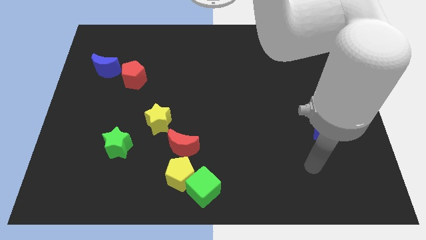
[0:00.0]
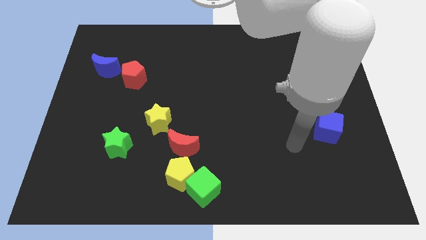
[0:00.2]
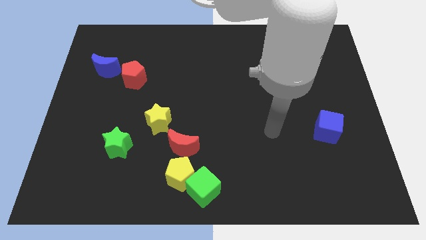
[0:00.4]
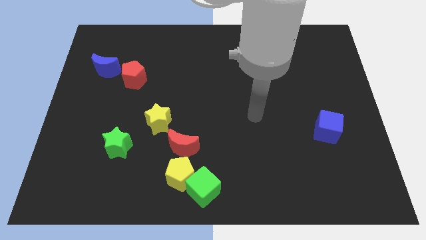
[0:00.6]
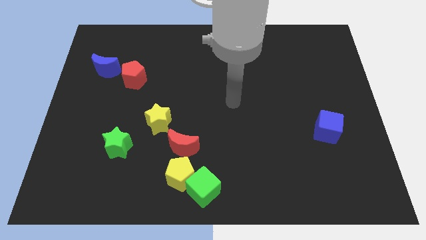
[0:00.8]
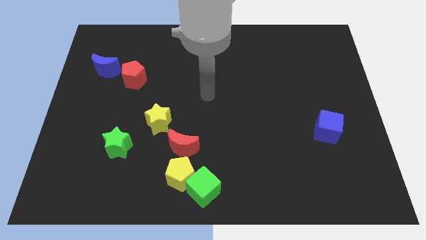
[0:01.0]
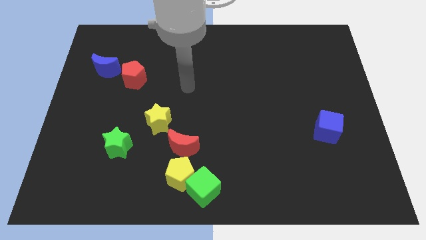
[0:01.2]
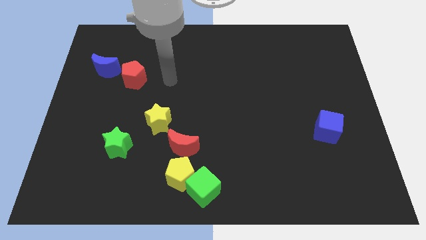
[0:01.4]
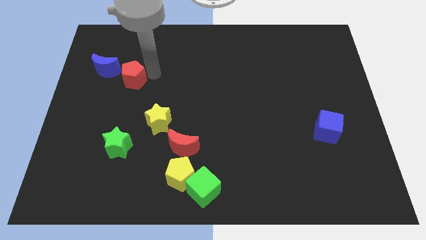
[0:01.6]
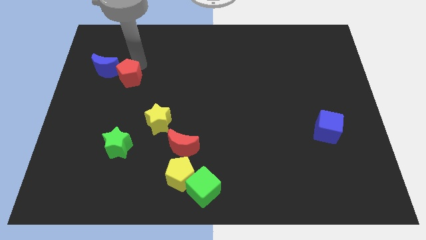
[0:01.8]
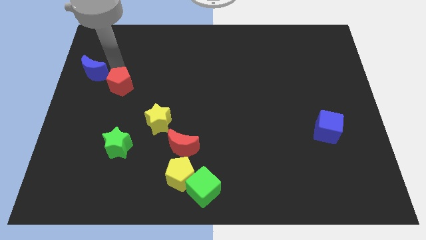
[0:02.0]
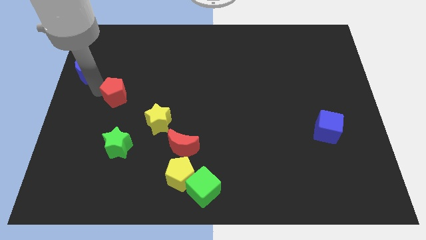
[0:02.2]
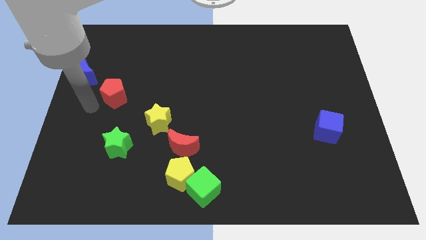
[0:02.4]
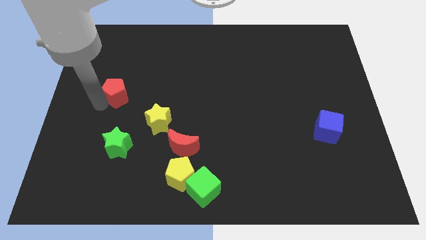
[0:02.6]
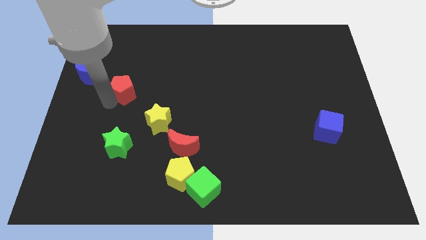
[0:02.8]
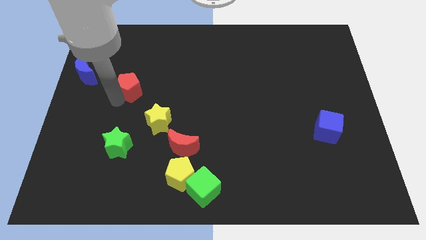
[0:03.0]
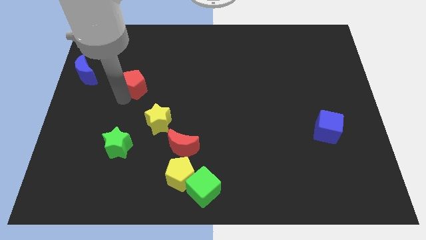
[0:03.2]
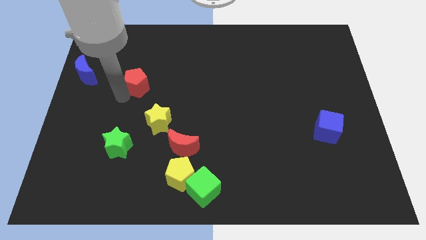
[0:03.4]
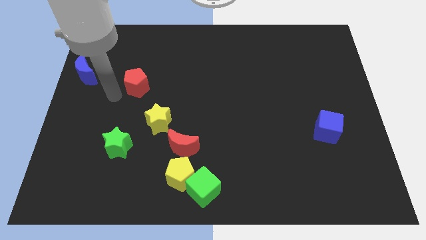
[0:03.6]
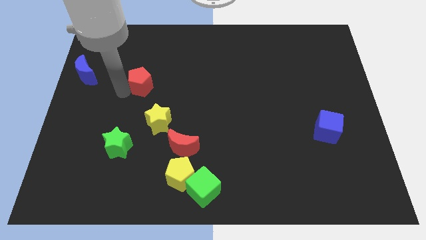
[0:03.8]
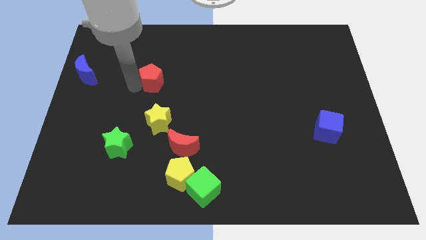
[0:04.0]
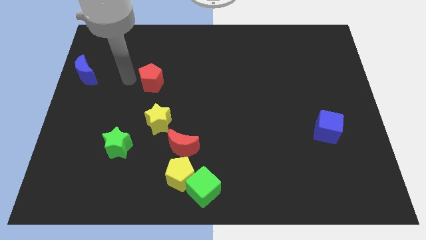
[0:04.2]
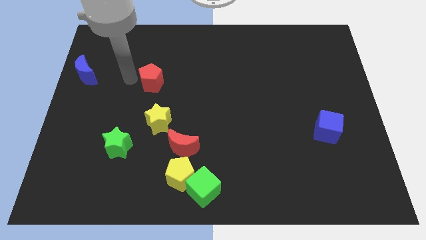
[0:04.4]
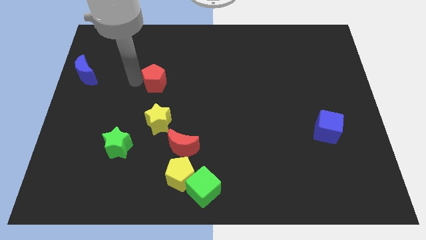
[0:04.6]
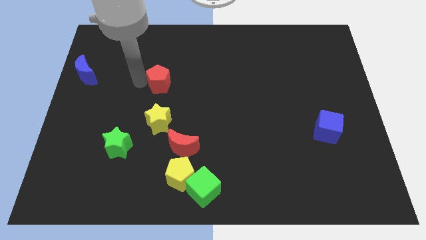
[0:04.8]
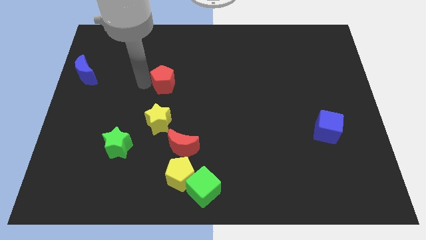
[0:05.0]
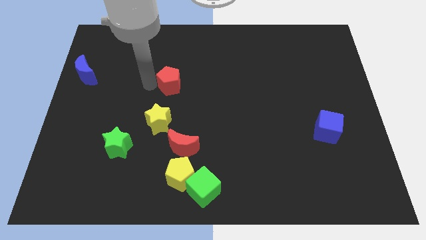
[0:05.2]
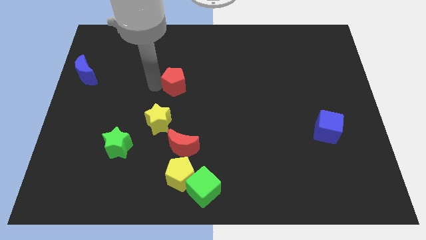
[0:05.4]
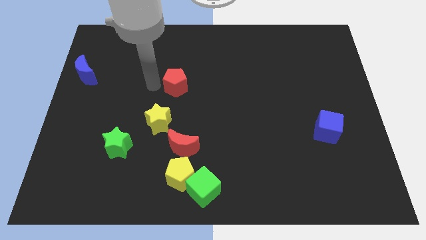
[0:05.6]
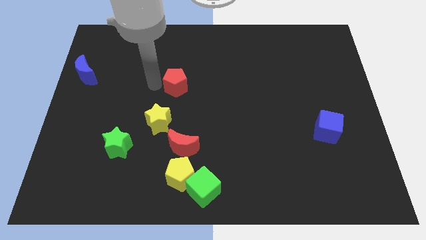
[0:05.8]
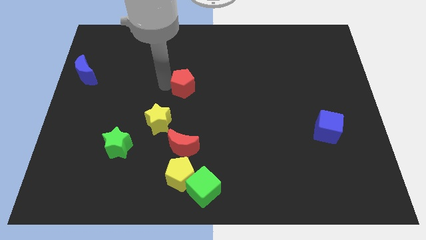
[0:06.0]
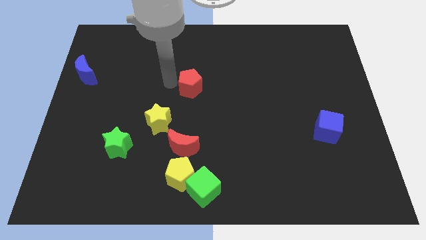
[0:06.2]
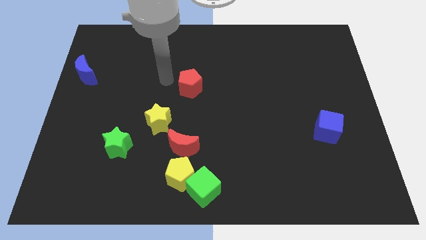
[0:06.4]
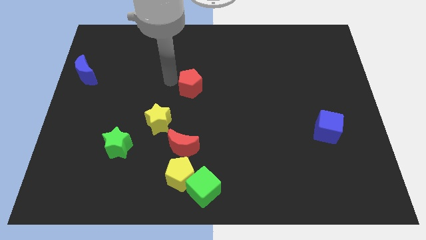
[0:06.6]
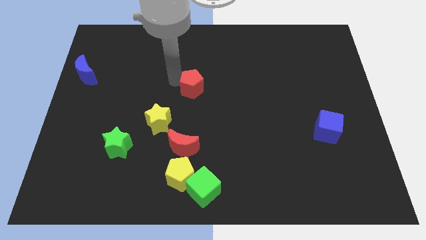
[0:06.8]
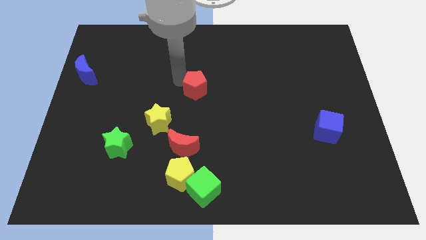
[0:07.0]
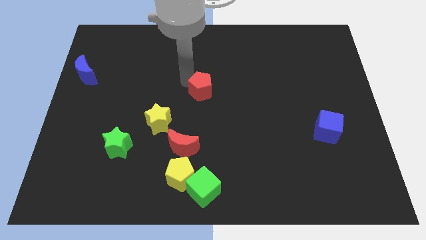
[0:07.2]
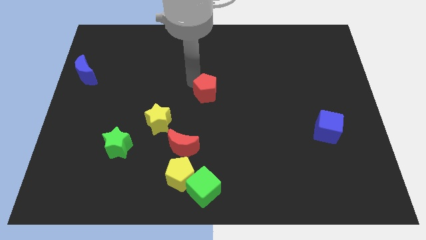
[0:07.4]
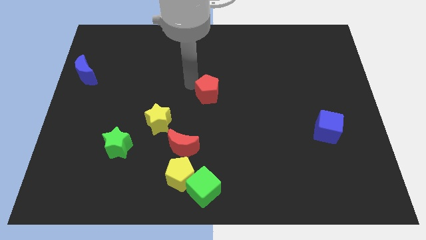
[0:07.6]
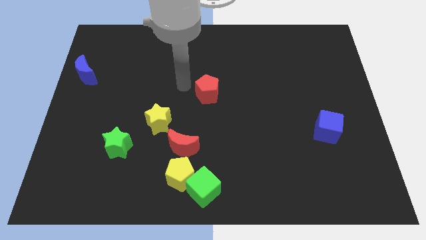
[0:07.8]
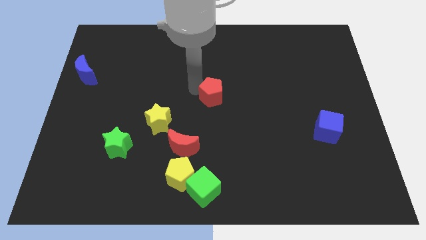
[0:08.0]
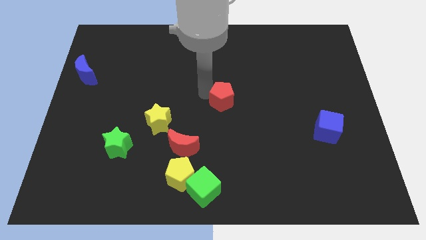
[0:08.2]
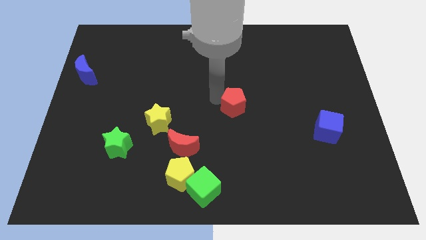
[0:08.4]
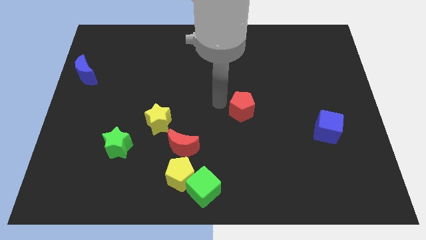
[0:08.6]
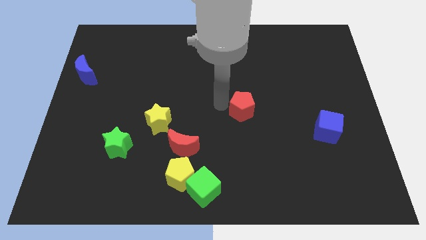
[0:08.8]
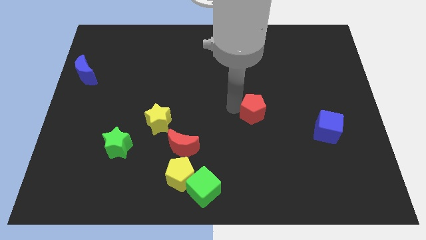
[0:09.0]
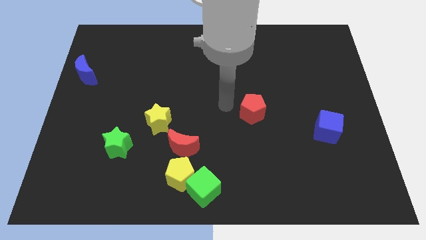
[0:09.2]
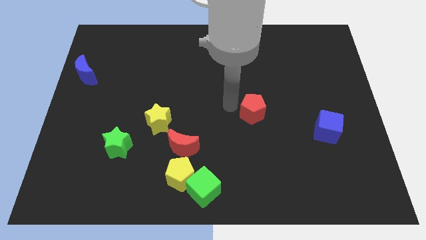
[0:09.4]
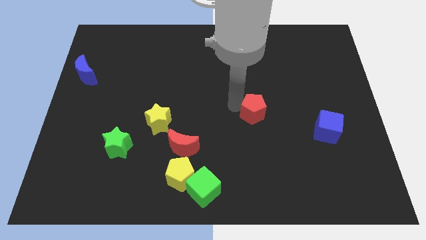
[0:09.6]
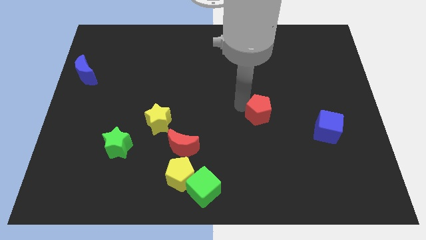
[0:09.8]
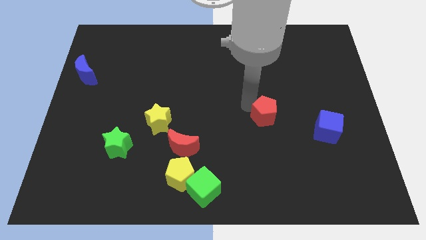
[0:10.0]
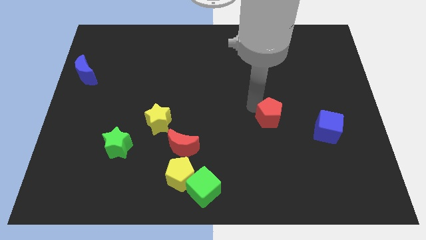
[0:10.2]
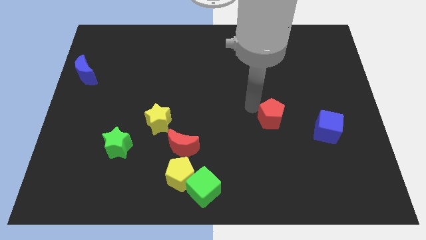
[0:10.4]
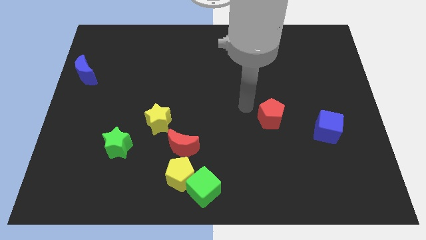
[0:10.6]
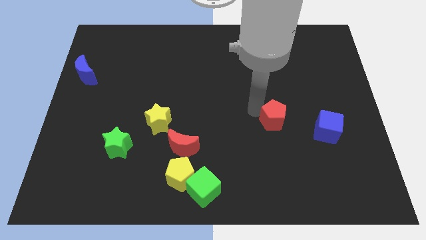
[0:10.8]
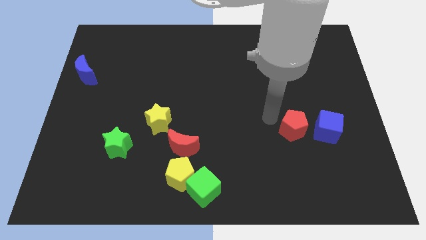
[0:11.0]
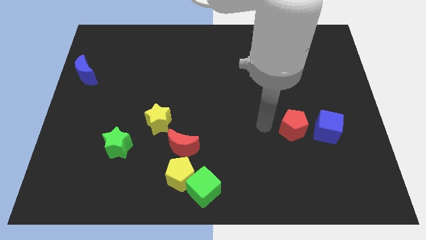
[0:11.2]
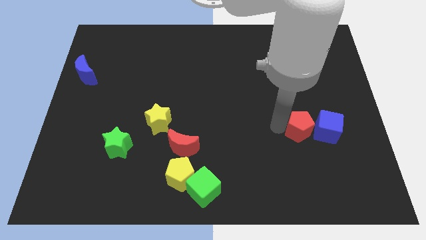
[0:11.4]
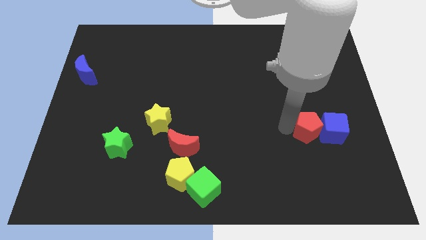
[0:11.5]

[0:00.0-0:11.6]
slide the red pentagon towards the blue cube

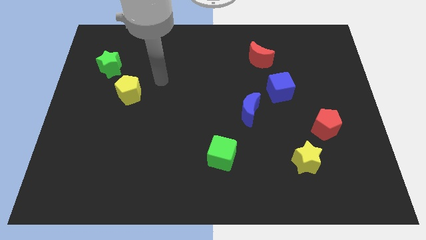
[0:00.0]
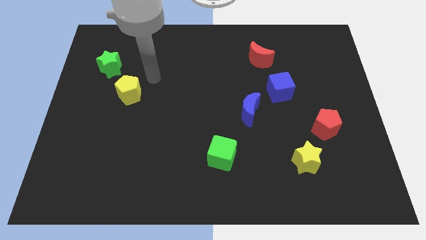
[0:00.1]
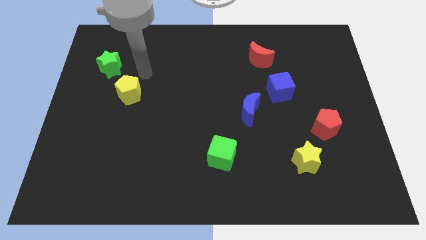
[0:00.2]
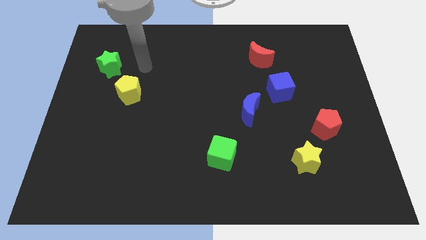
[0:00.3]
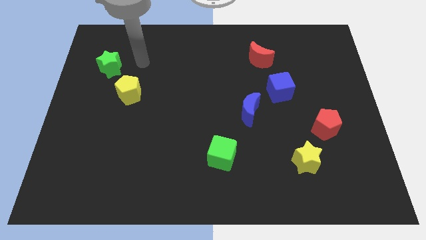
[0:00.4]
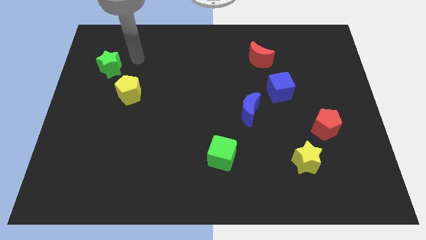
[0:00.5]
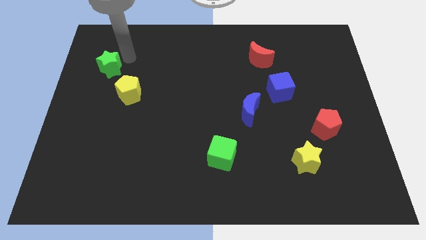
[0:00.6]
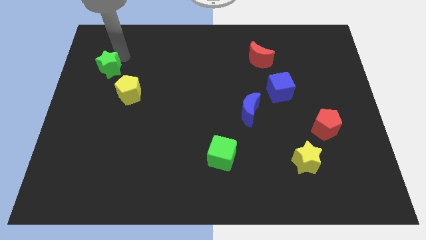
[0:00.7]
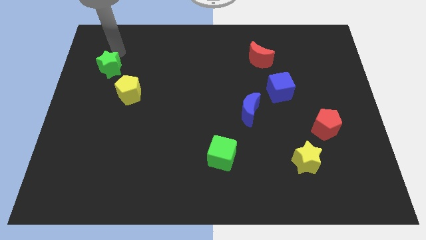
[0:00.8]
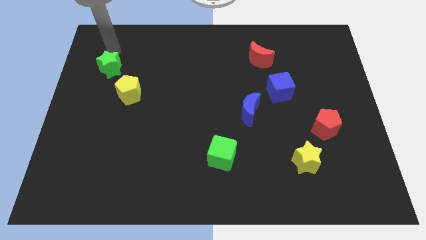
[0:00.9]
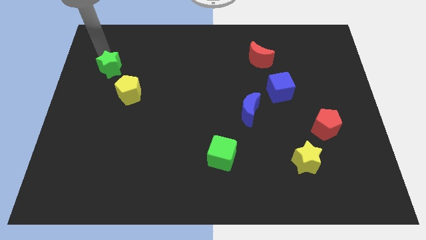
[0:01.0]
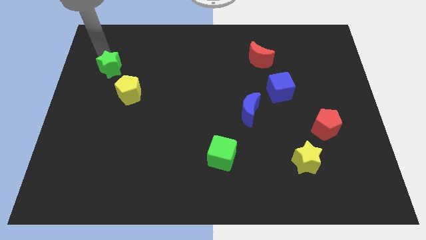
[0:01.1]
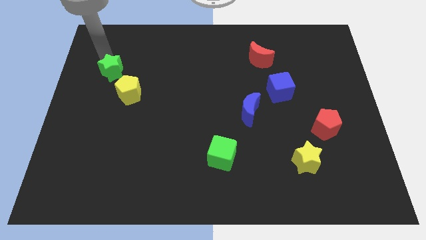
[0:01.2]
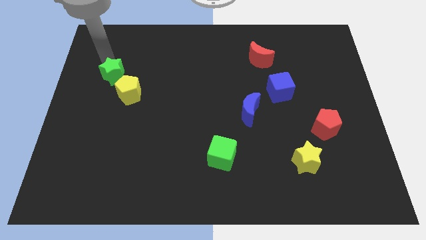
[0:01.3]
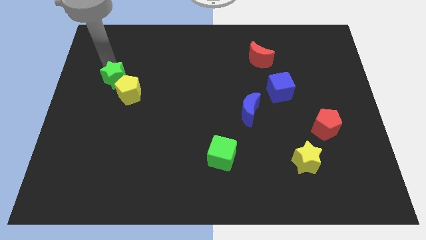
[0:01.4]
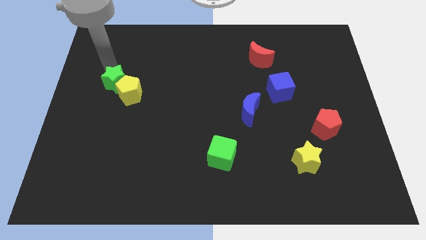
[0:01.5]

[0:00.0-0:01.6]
slide the green star next to the yellow pentagon
